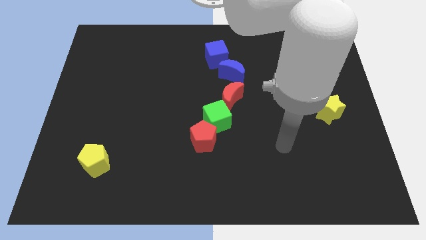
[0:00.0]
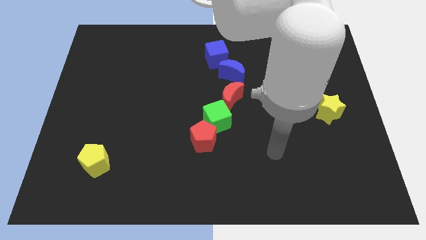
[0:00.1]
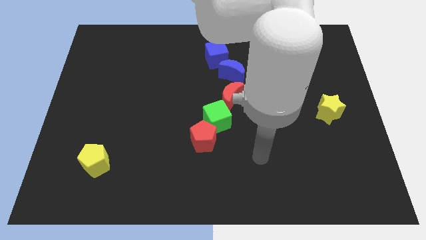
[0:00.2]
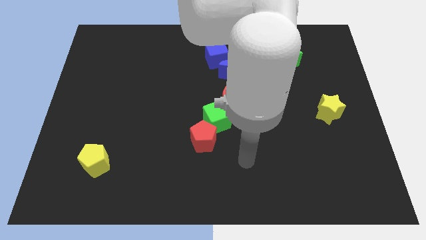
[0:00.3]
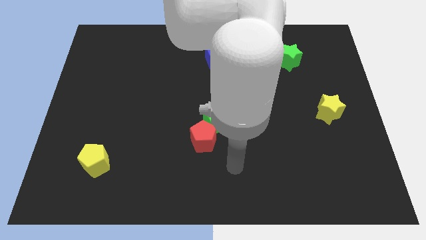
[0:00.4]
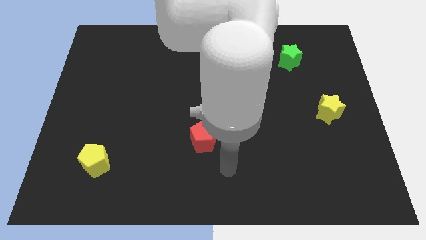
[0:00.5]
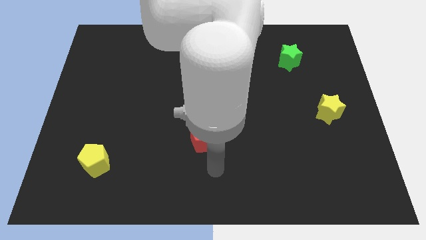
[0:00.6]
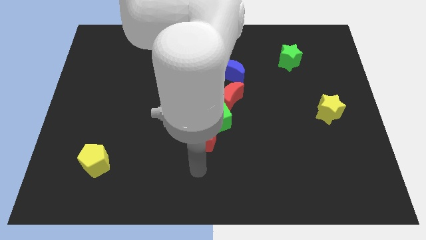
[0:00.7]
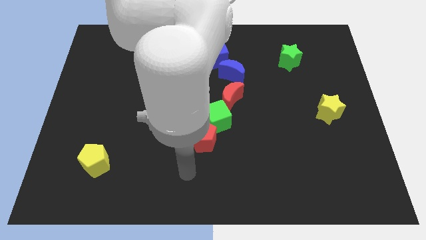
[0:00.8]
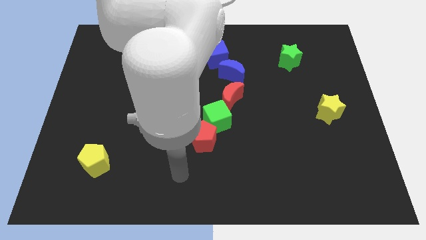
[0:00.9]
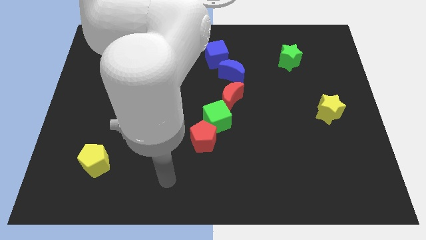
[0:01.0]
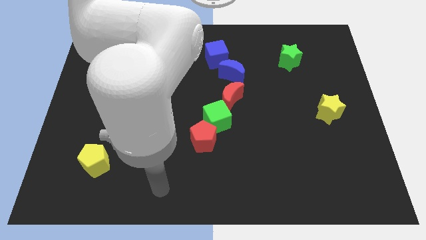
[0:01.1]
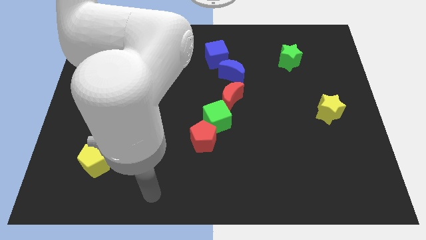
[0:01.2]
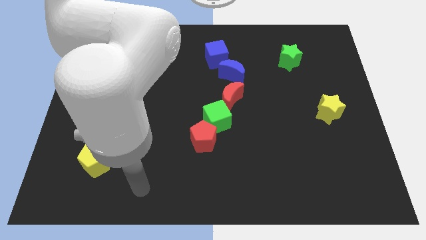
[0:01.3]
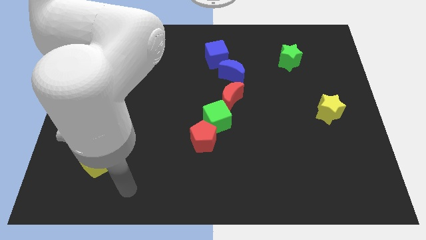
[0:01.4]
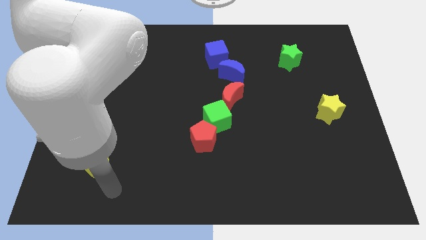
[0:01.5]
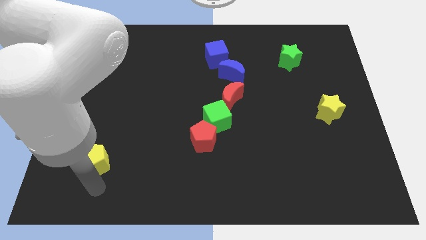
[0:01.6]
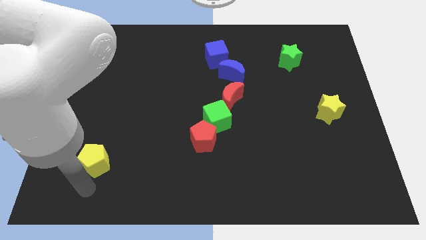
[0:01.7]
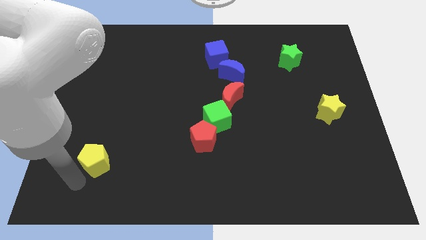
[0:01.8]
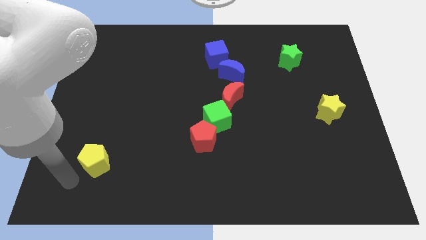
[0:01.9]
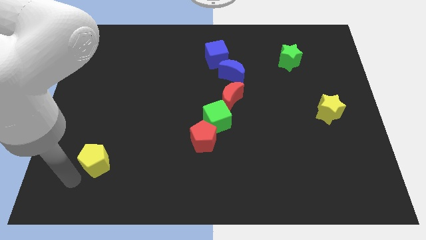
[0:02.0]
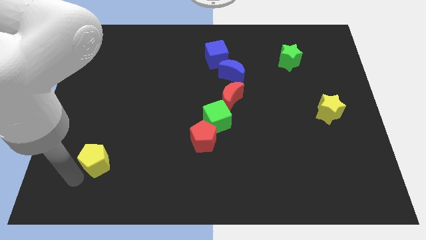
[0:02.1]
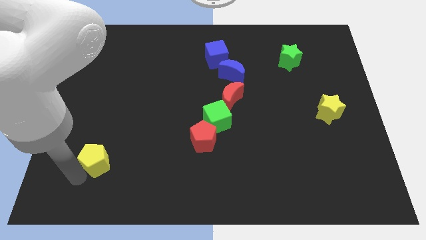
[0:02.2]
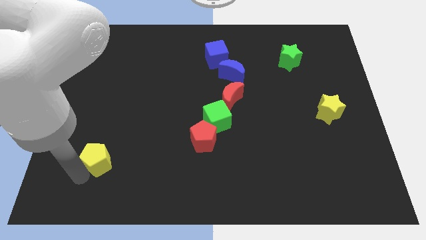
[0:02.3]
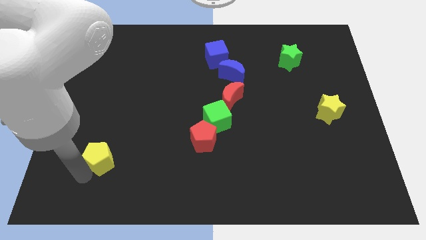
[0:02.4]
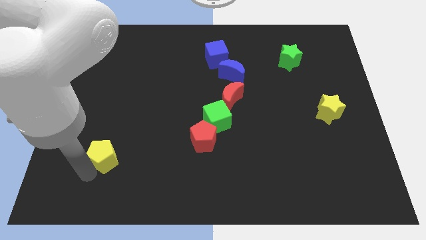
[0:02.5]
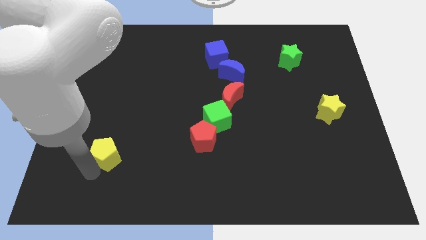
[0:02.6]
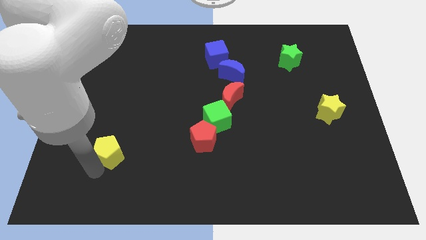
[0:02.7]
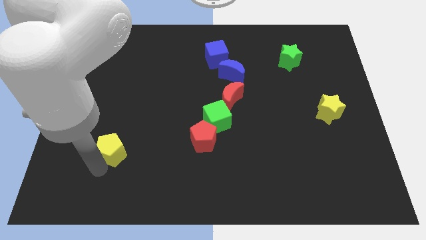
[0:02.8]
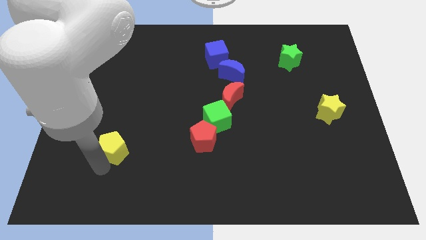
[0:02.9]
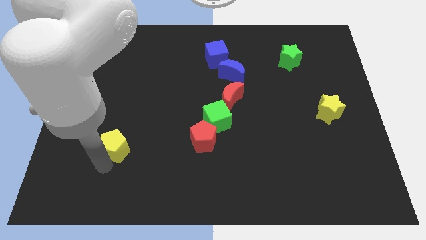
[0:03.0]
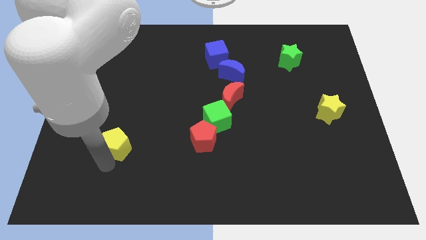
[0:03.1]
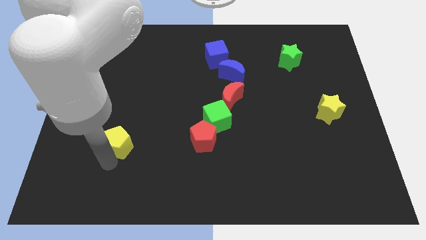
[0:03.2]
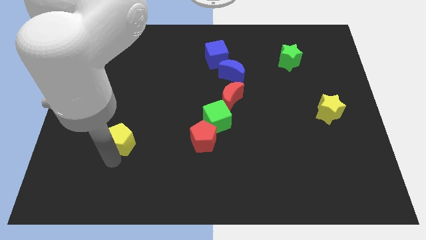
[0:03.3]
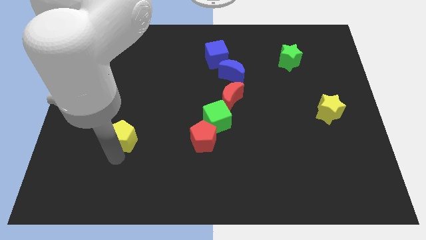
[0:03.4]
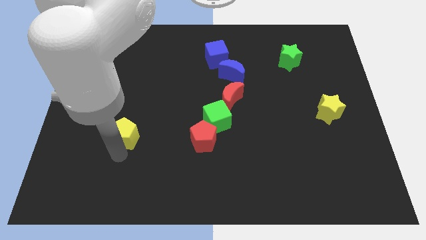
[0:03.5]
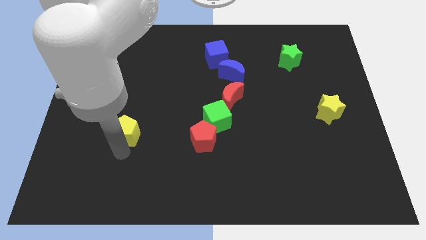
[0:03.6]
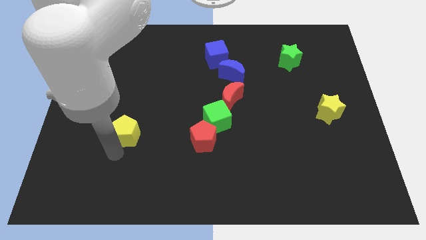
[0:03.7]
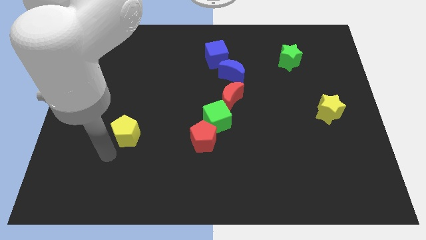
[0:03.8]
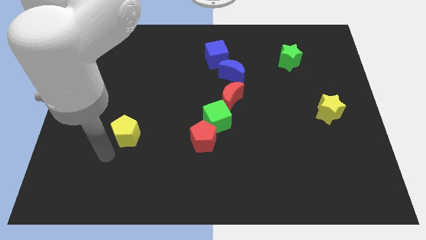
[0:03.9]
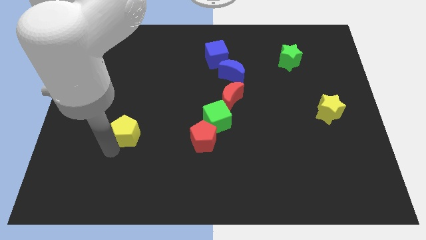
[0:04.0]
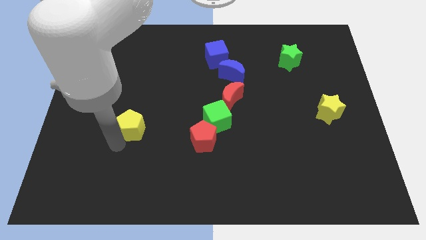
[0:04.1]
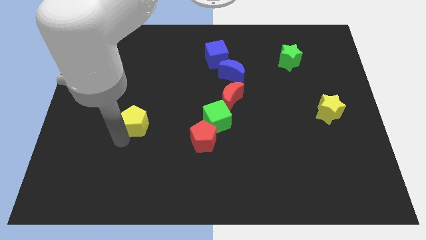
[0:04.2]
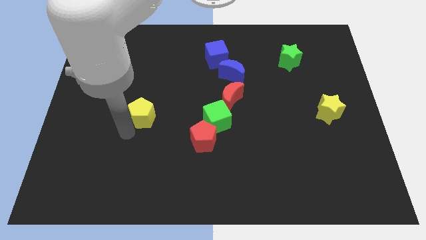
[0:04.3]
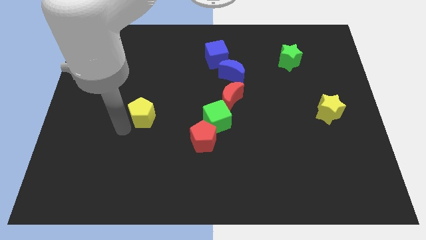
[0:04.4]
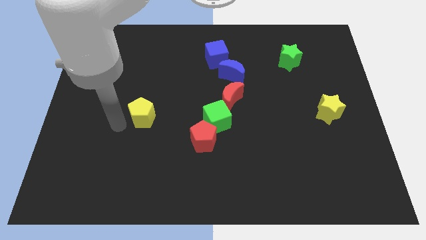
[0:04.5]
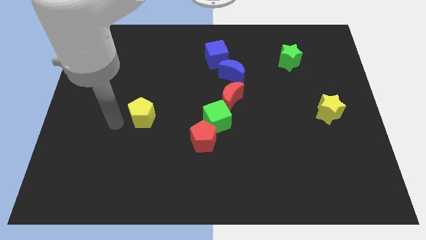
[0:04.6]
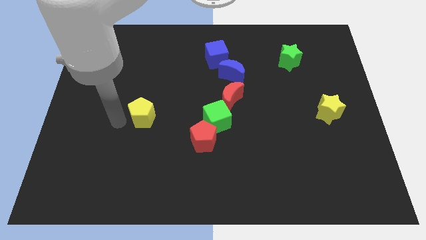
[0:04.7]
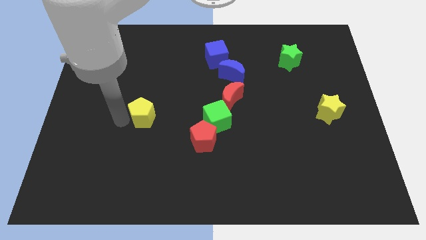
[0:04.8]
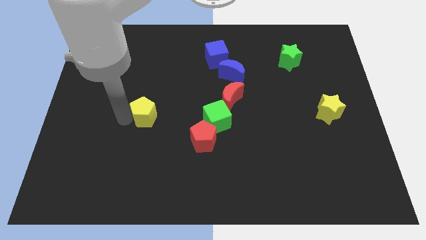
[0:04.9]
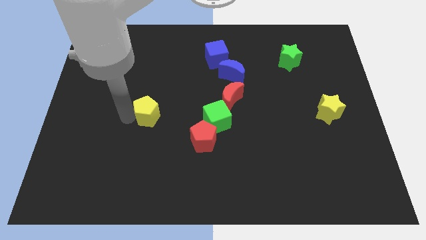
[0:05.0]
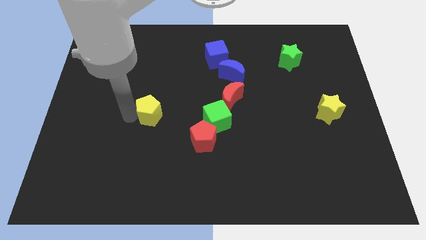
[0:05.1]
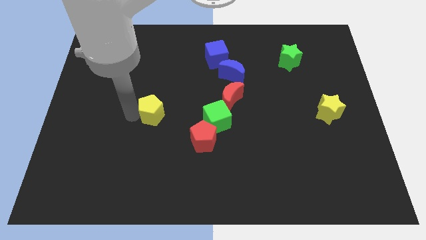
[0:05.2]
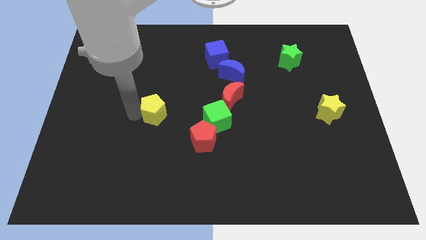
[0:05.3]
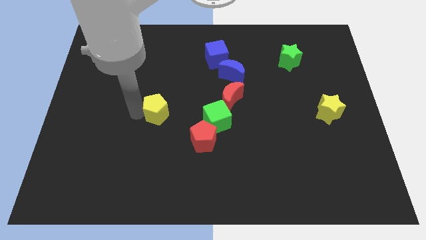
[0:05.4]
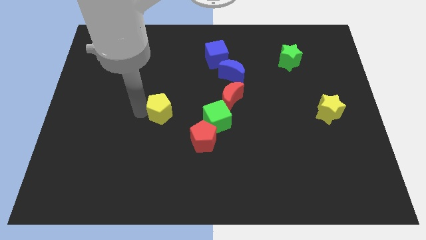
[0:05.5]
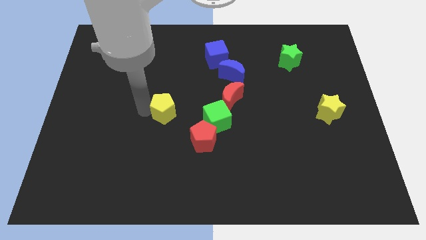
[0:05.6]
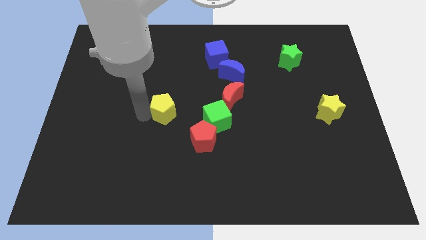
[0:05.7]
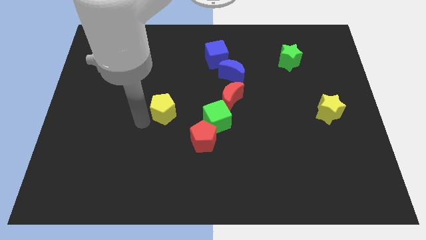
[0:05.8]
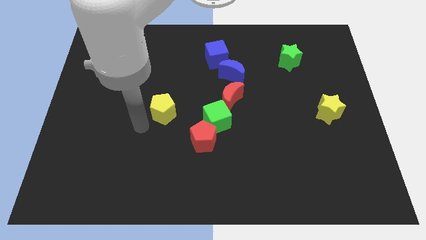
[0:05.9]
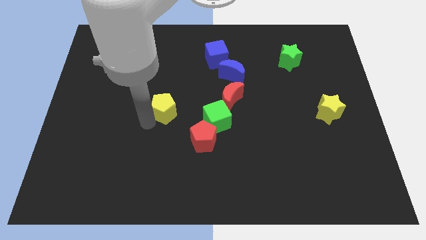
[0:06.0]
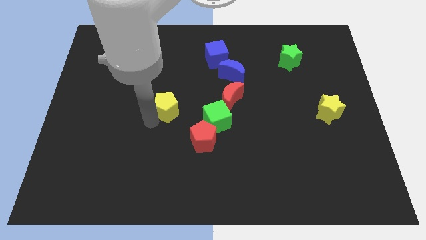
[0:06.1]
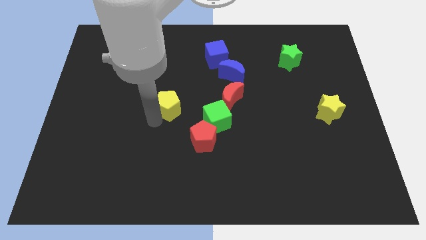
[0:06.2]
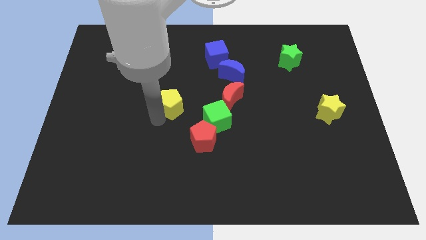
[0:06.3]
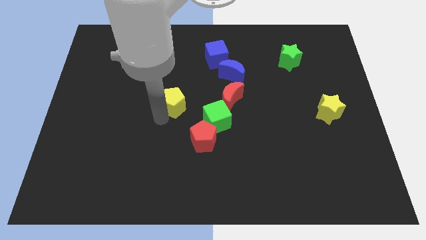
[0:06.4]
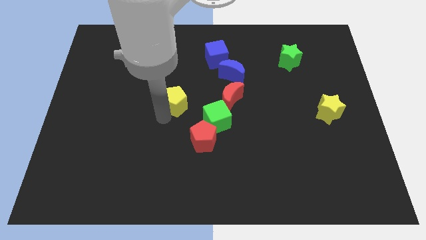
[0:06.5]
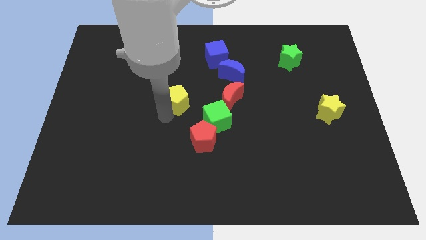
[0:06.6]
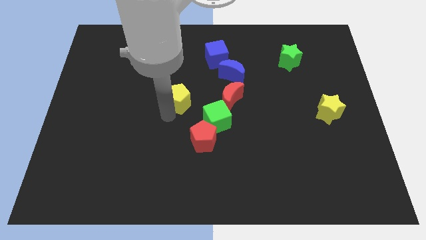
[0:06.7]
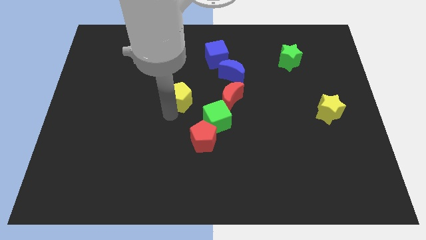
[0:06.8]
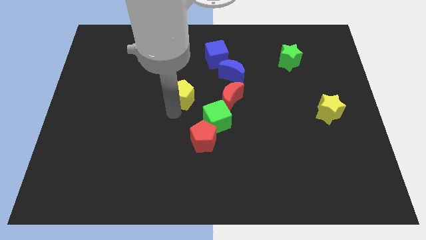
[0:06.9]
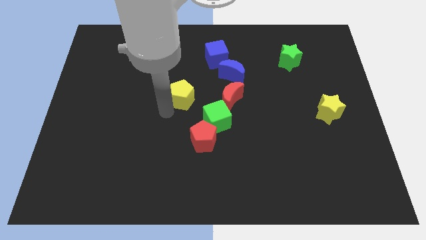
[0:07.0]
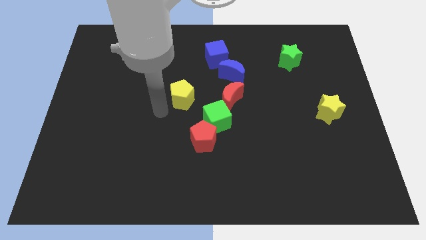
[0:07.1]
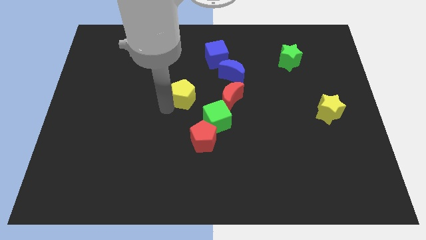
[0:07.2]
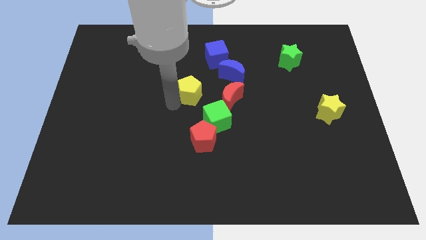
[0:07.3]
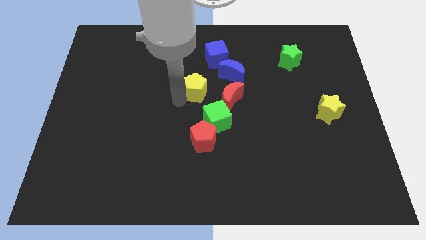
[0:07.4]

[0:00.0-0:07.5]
move the yellow pentagon to the top left of the red moon
